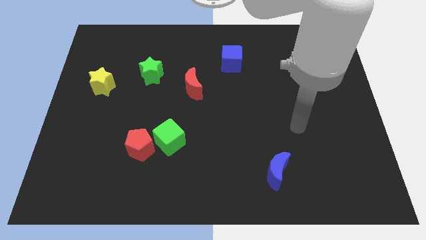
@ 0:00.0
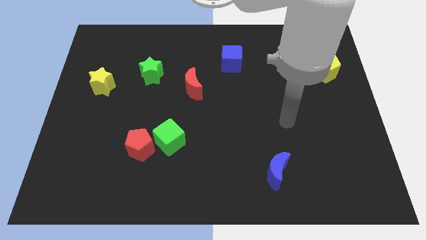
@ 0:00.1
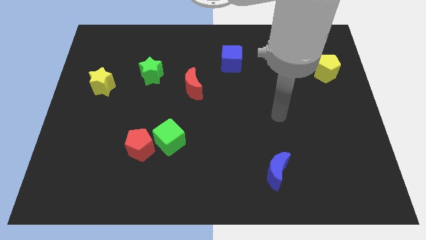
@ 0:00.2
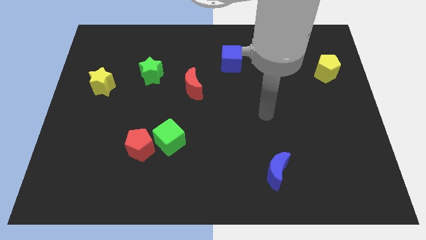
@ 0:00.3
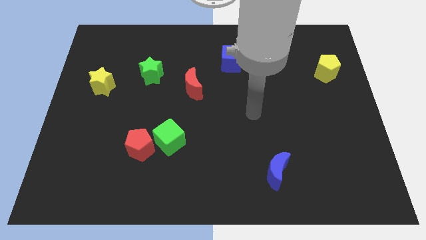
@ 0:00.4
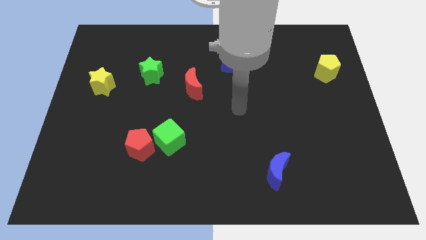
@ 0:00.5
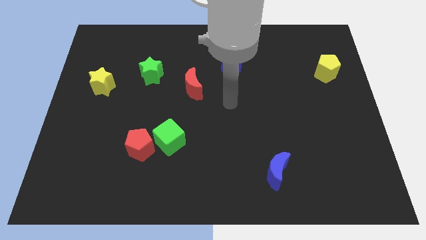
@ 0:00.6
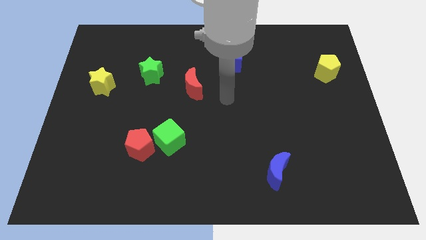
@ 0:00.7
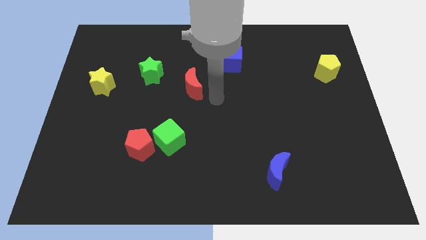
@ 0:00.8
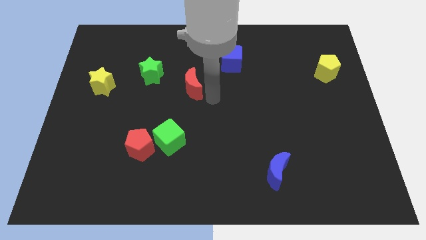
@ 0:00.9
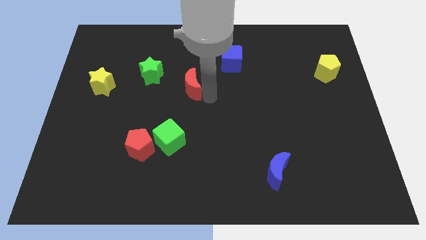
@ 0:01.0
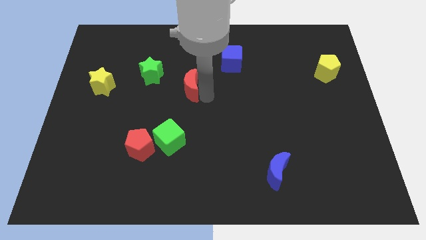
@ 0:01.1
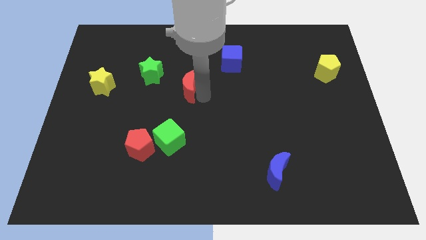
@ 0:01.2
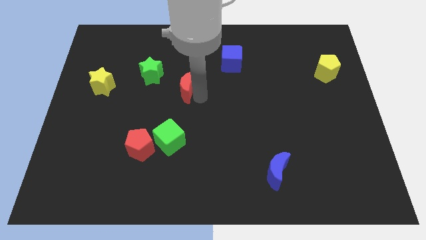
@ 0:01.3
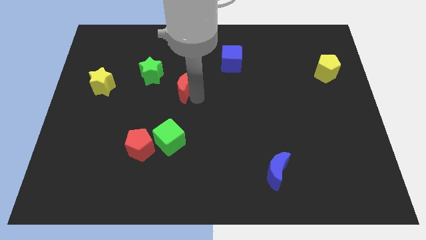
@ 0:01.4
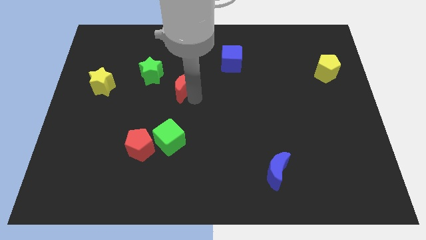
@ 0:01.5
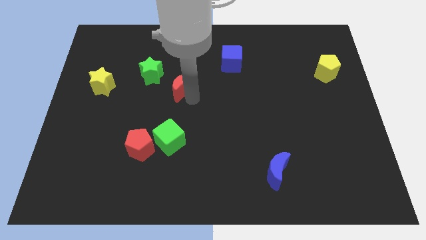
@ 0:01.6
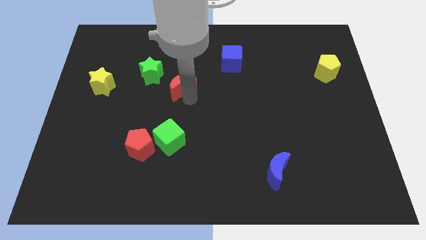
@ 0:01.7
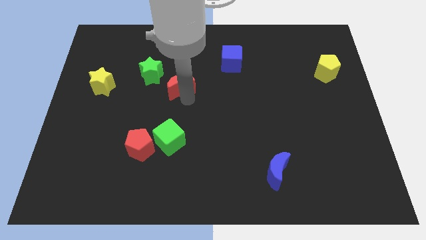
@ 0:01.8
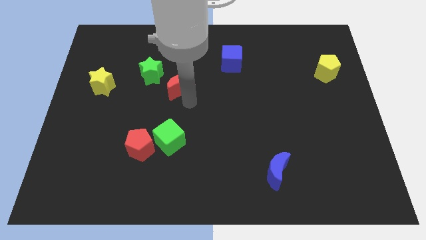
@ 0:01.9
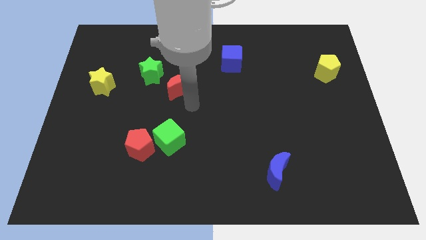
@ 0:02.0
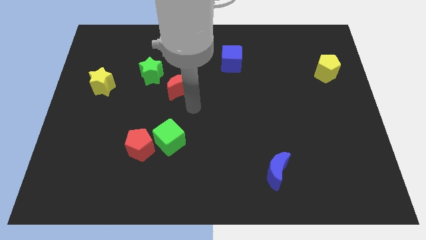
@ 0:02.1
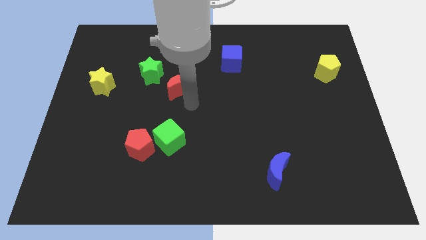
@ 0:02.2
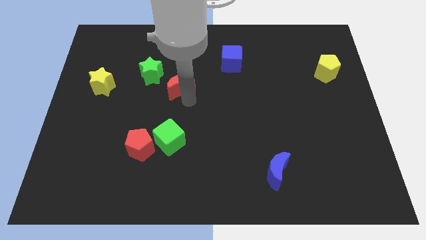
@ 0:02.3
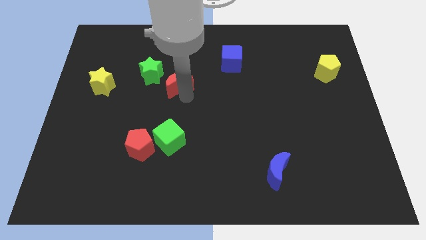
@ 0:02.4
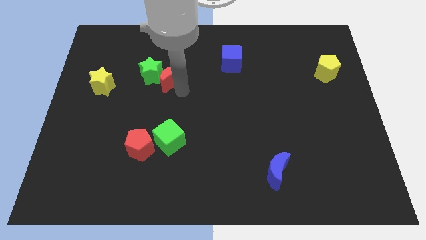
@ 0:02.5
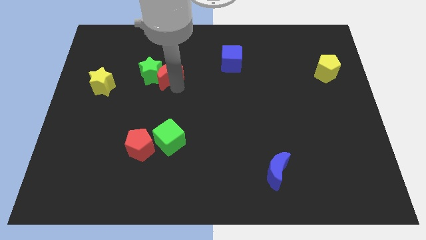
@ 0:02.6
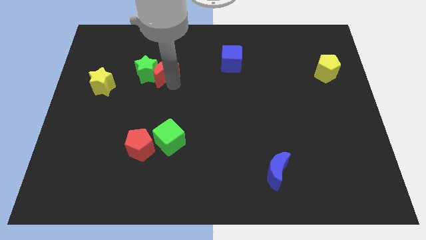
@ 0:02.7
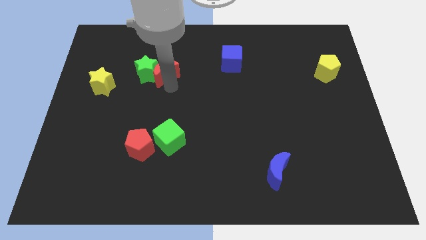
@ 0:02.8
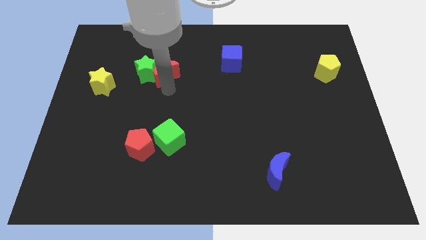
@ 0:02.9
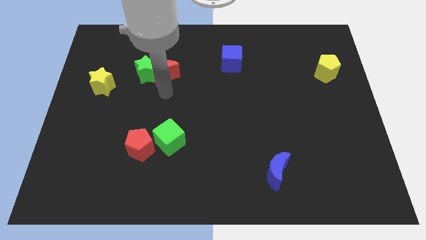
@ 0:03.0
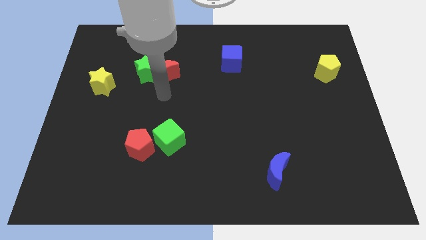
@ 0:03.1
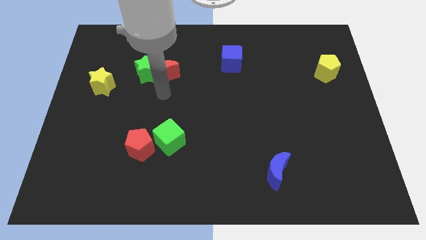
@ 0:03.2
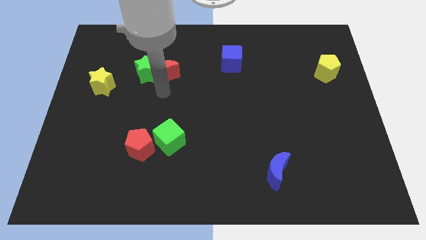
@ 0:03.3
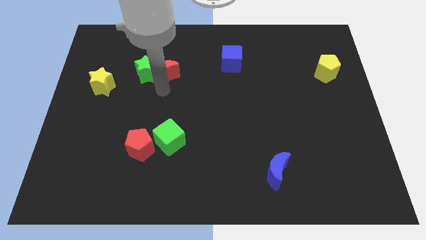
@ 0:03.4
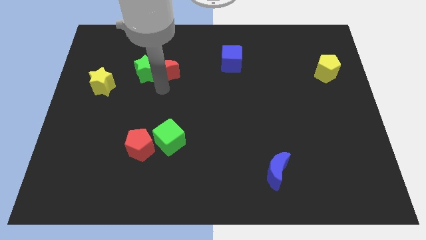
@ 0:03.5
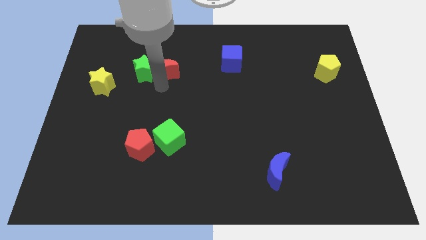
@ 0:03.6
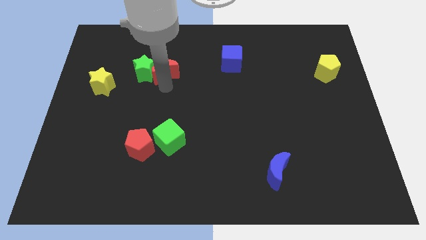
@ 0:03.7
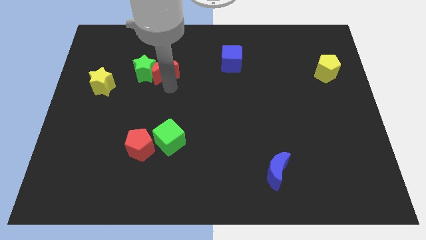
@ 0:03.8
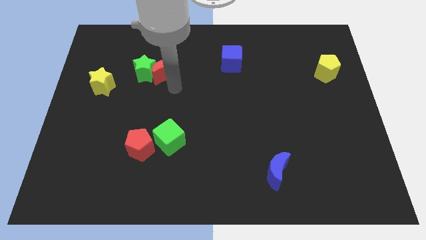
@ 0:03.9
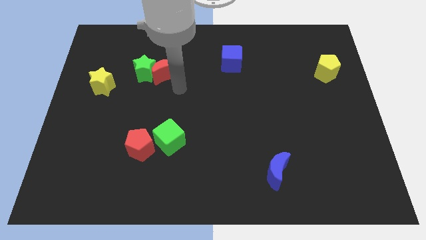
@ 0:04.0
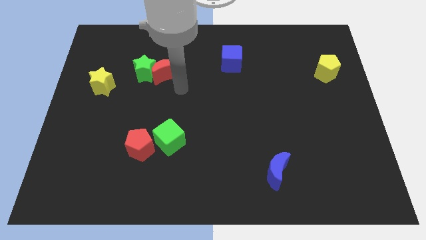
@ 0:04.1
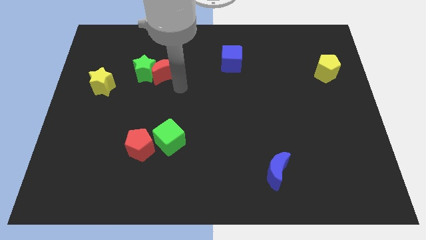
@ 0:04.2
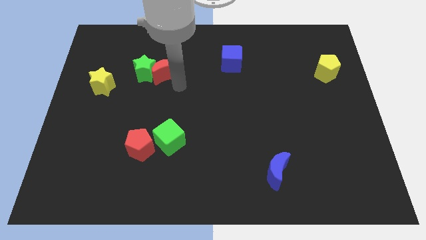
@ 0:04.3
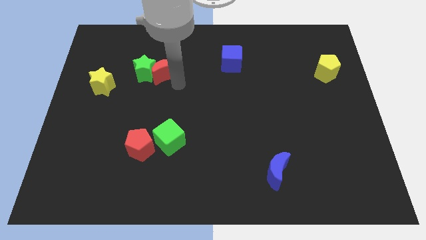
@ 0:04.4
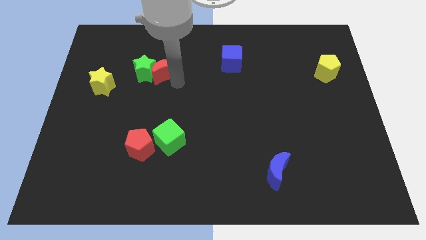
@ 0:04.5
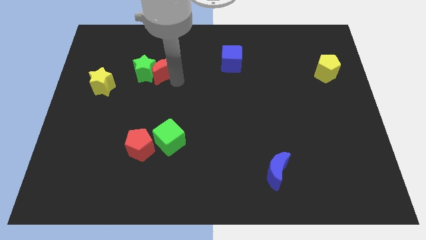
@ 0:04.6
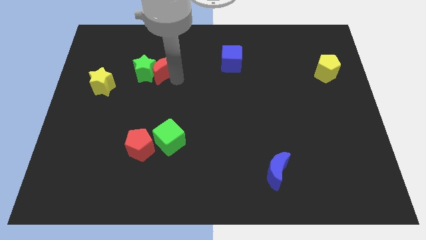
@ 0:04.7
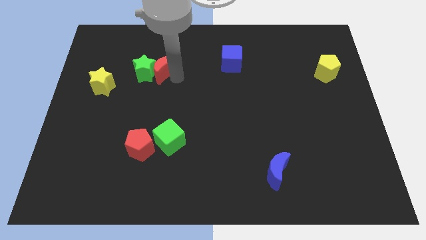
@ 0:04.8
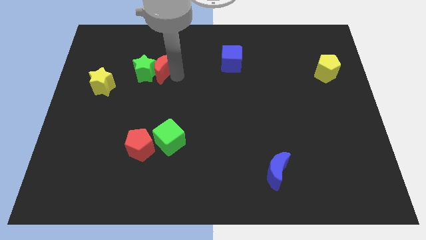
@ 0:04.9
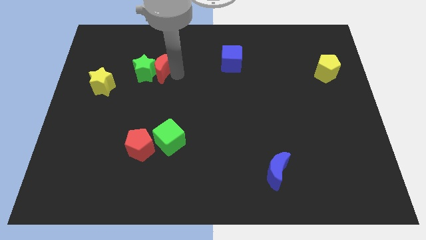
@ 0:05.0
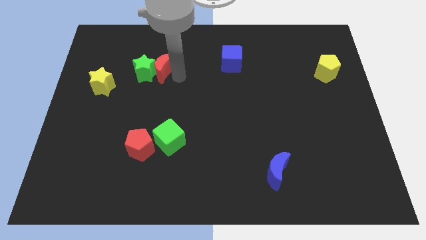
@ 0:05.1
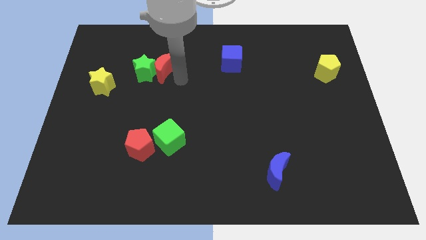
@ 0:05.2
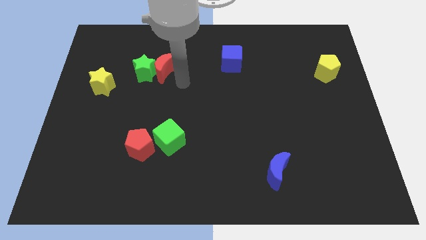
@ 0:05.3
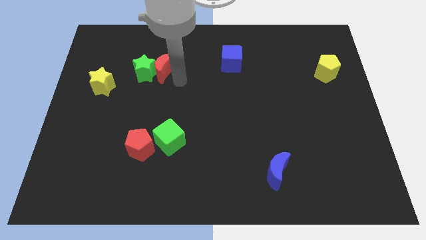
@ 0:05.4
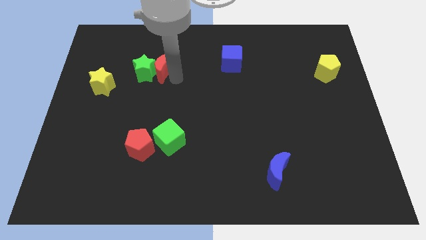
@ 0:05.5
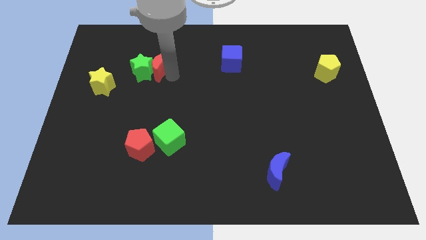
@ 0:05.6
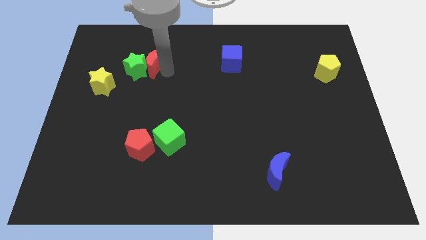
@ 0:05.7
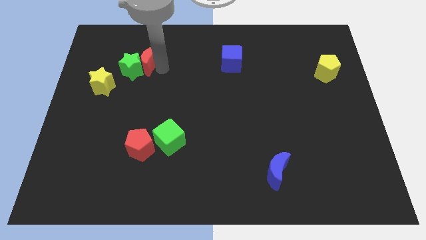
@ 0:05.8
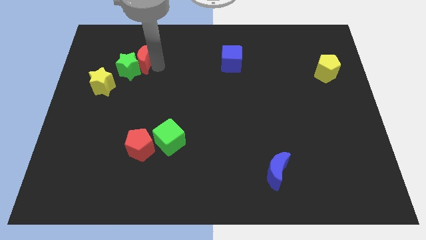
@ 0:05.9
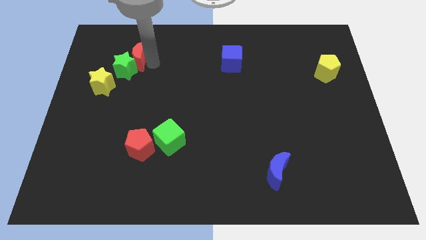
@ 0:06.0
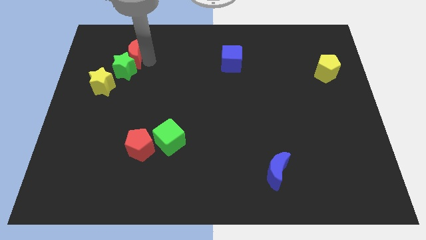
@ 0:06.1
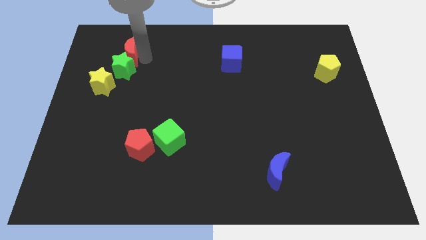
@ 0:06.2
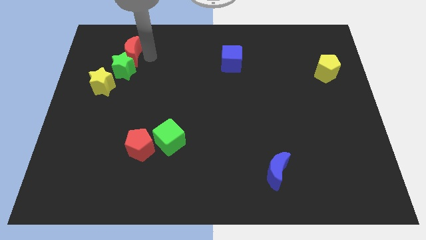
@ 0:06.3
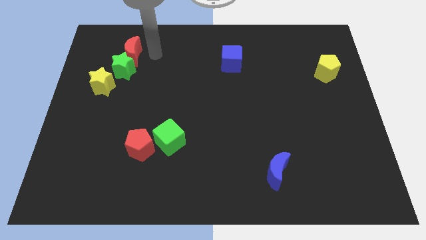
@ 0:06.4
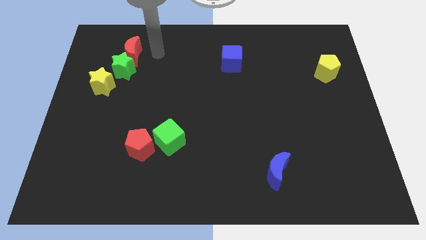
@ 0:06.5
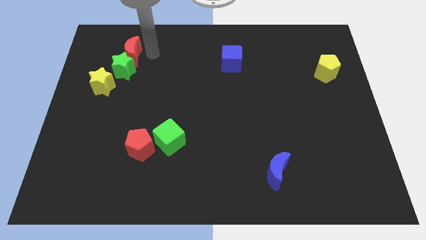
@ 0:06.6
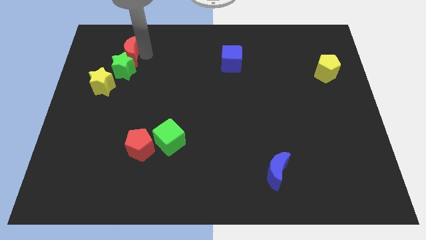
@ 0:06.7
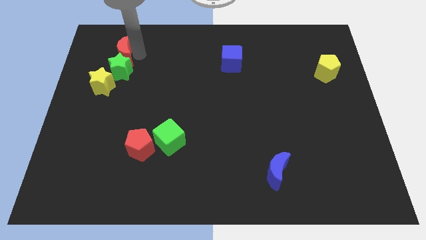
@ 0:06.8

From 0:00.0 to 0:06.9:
put the red moon to the top side of the yellow star

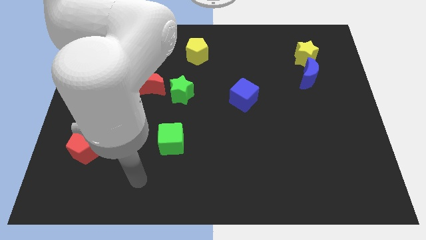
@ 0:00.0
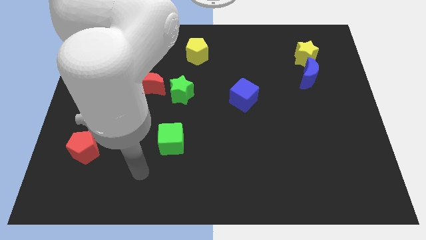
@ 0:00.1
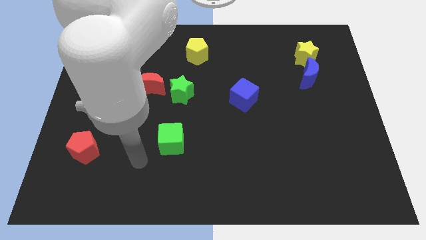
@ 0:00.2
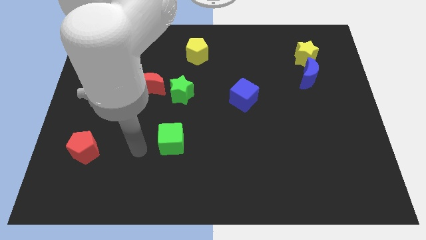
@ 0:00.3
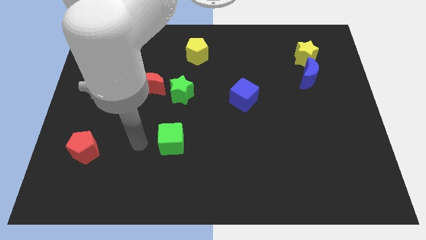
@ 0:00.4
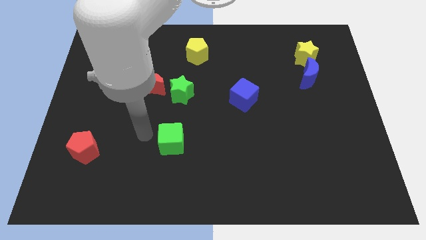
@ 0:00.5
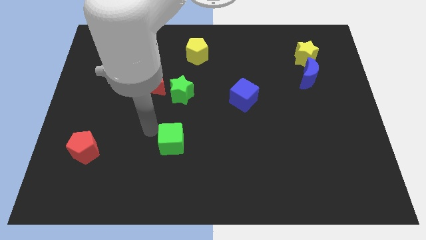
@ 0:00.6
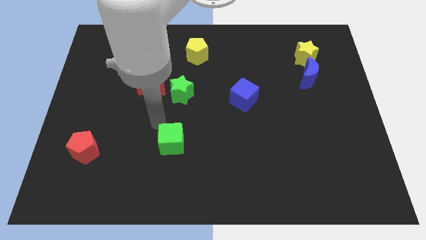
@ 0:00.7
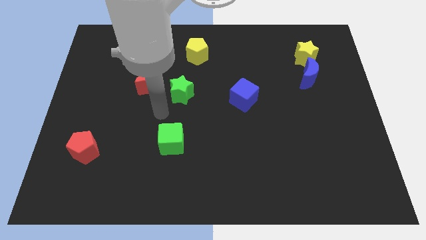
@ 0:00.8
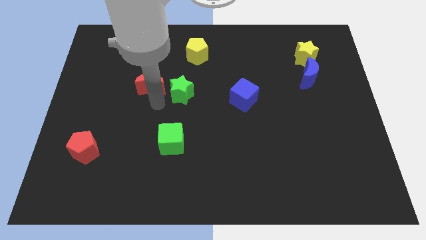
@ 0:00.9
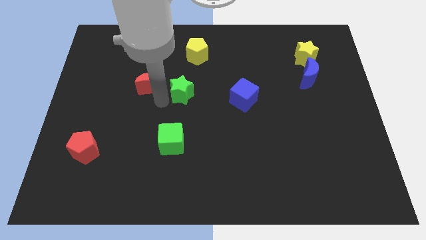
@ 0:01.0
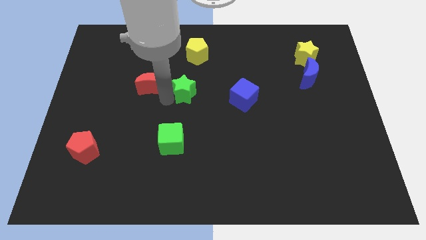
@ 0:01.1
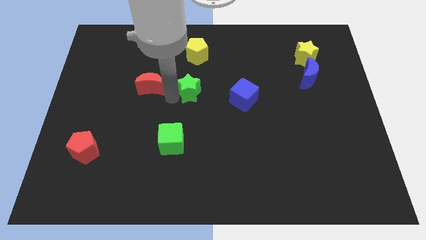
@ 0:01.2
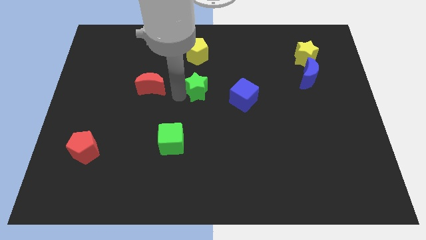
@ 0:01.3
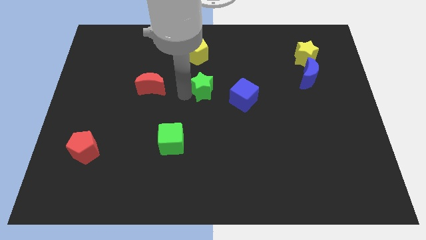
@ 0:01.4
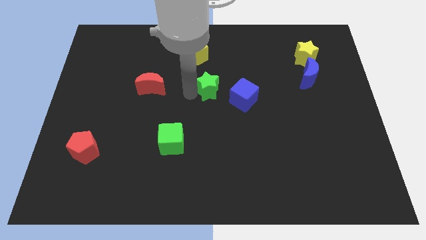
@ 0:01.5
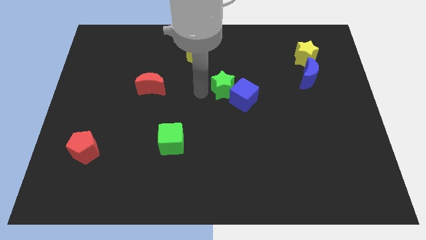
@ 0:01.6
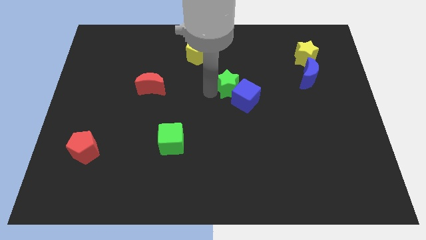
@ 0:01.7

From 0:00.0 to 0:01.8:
slide the green star above the blue cube
